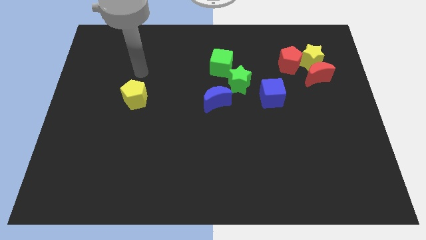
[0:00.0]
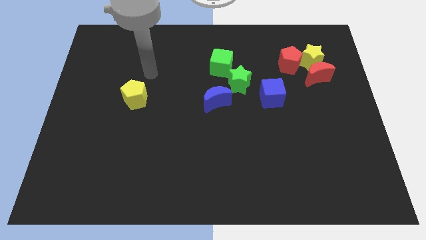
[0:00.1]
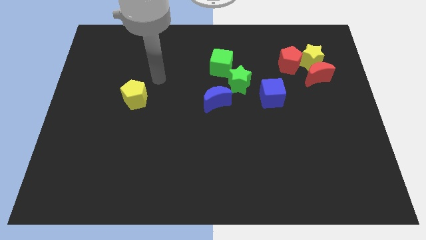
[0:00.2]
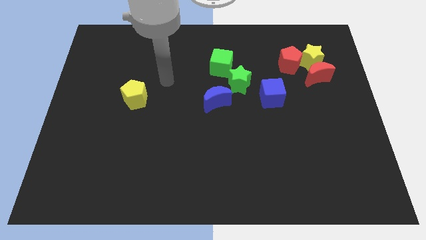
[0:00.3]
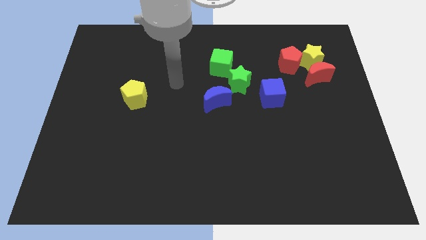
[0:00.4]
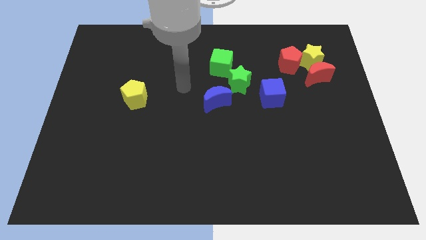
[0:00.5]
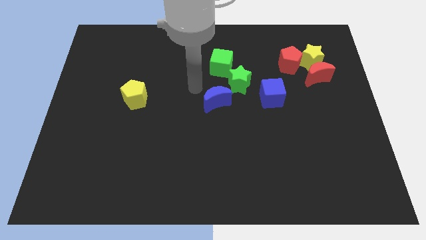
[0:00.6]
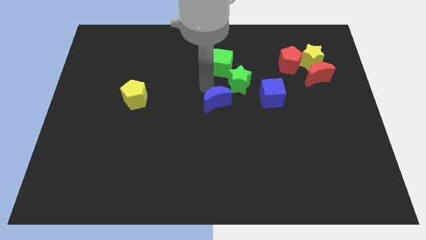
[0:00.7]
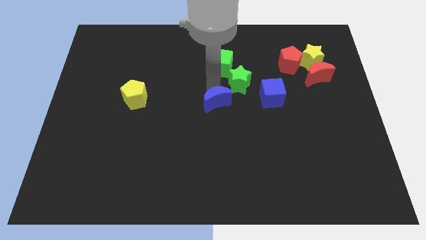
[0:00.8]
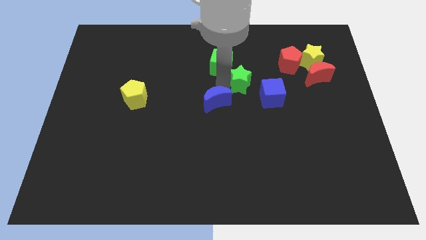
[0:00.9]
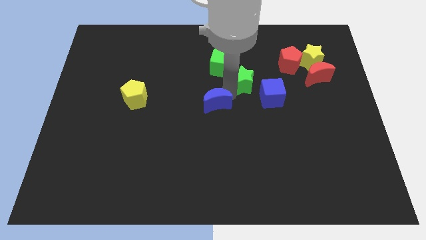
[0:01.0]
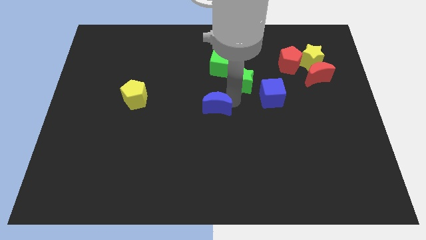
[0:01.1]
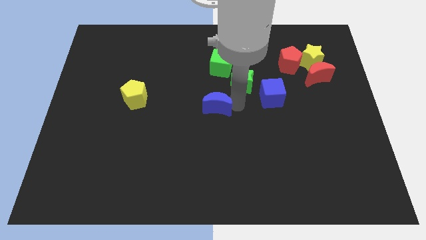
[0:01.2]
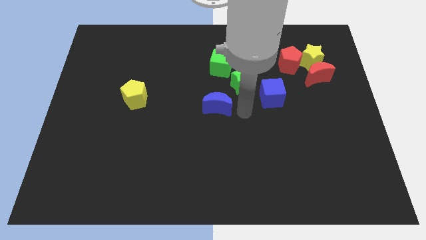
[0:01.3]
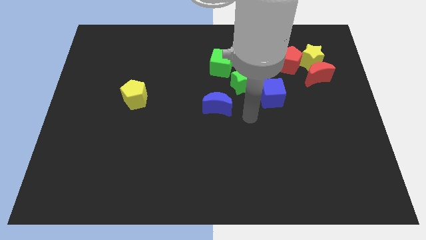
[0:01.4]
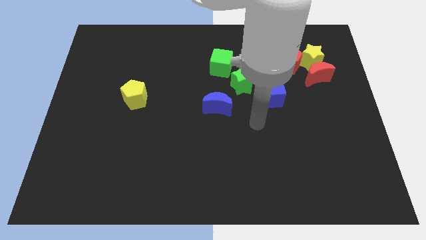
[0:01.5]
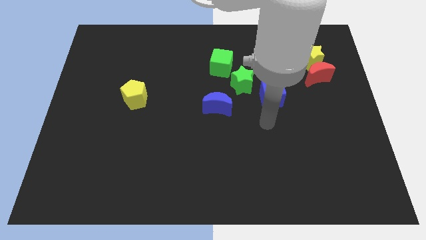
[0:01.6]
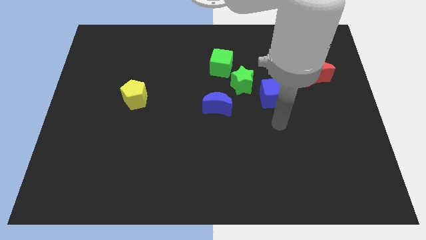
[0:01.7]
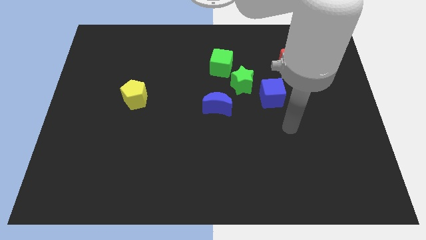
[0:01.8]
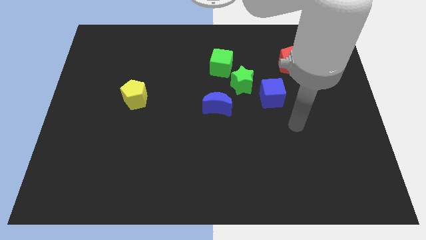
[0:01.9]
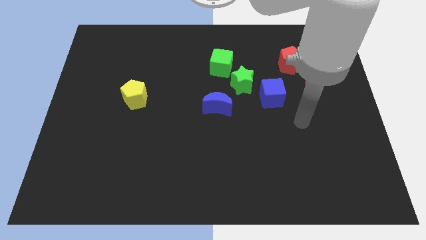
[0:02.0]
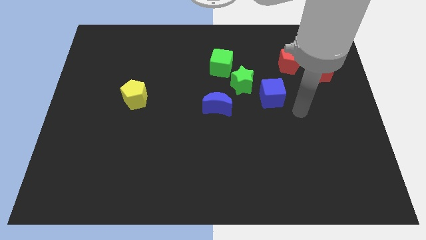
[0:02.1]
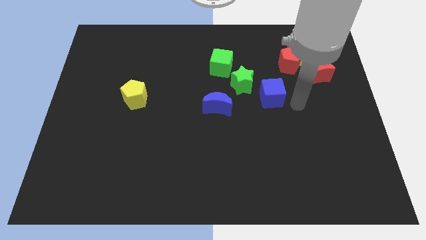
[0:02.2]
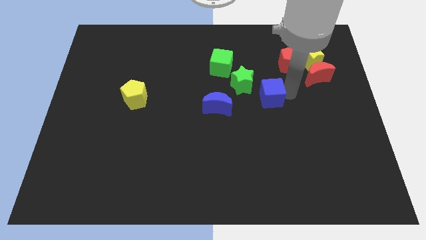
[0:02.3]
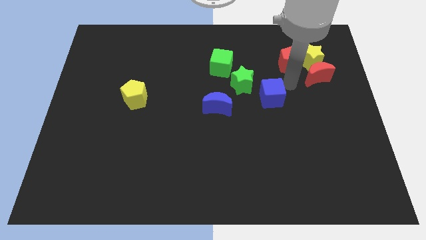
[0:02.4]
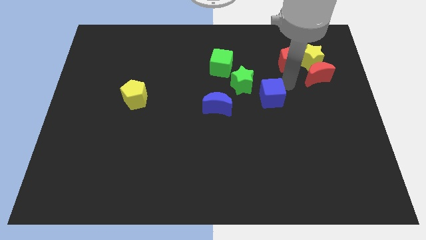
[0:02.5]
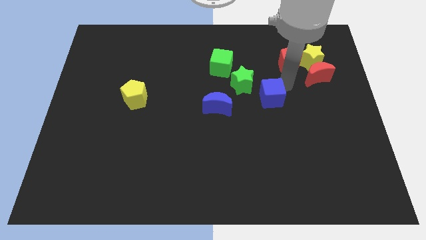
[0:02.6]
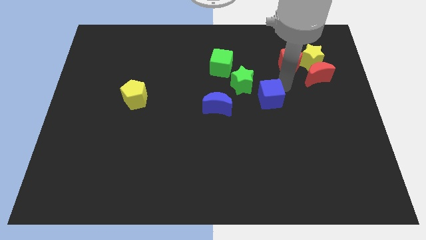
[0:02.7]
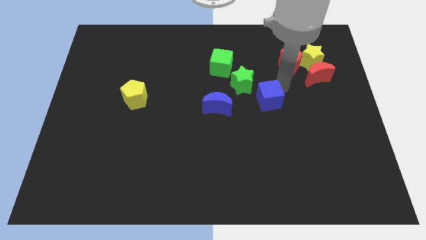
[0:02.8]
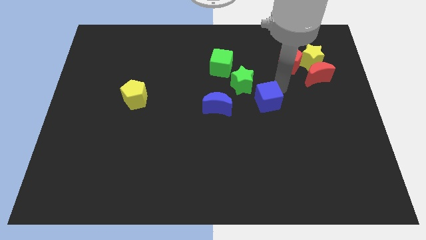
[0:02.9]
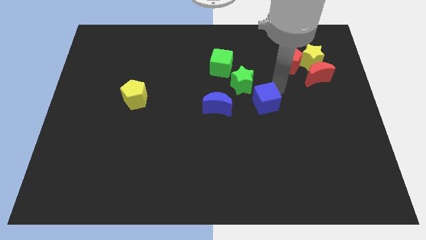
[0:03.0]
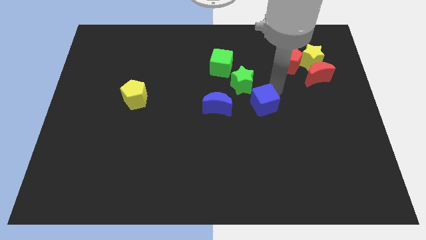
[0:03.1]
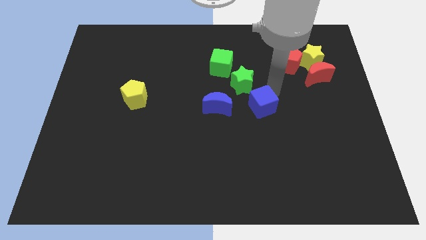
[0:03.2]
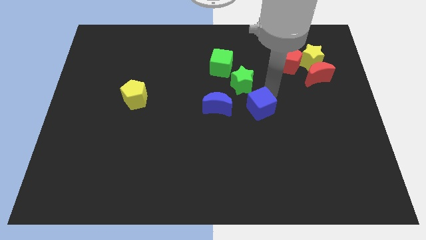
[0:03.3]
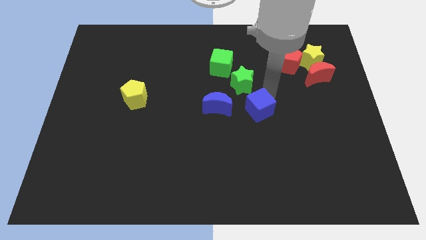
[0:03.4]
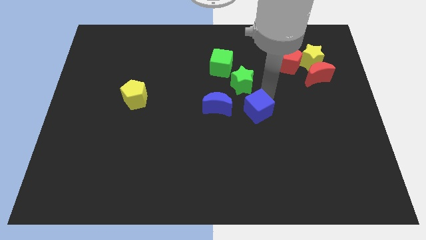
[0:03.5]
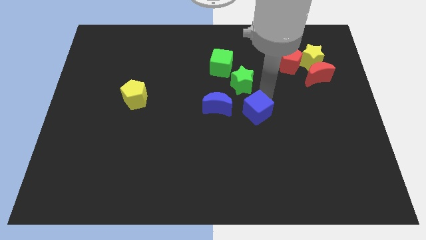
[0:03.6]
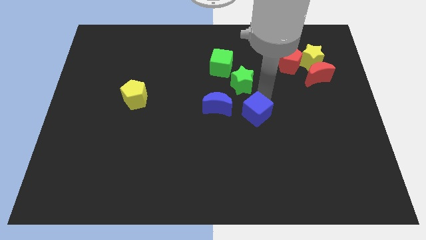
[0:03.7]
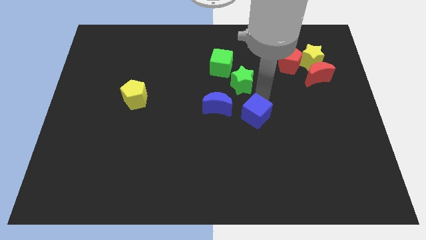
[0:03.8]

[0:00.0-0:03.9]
push the blue cube down and then left a little

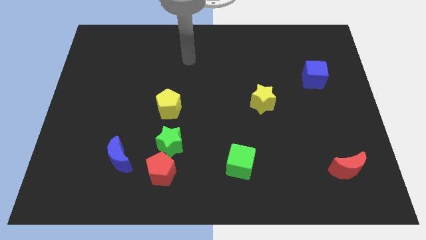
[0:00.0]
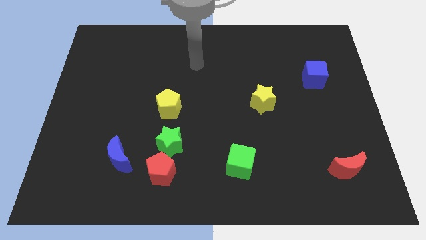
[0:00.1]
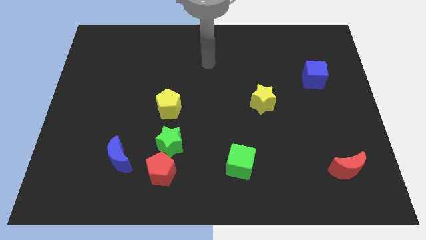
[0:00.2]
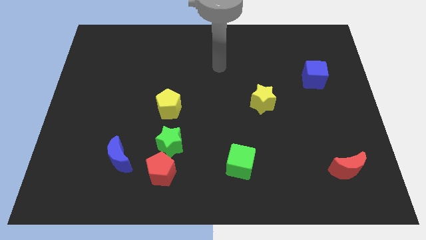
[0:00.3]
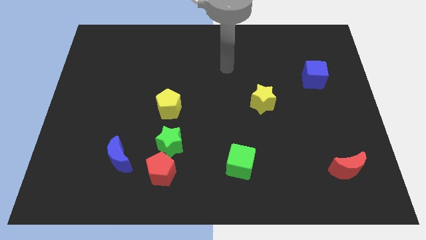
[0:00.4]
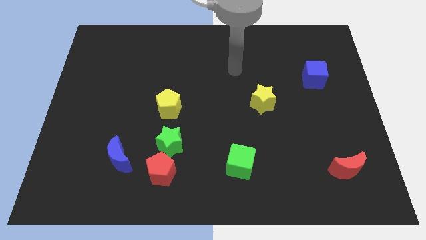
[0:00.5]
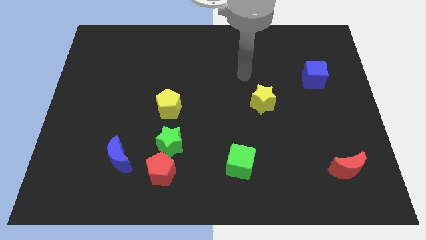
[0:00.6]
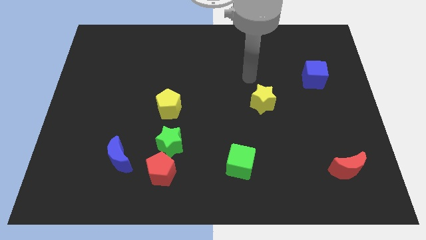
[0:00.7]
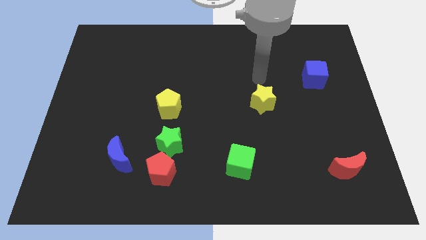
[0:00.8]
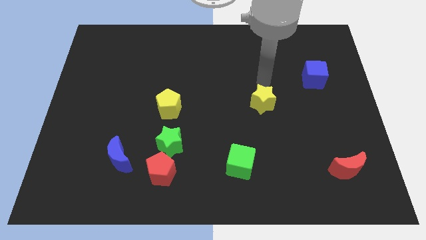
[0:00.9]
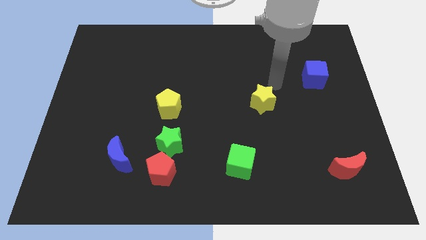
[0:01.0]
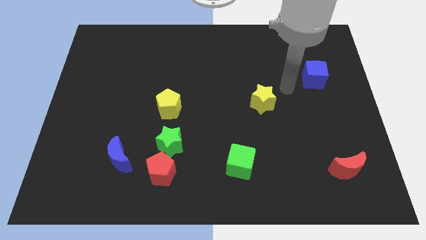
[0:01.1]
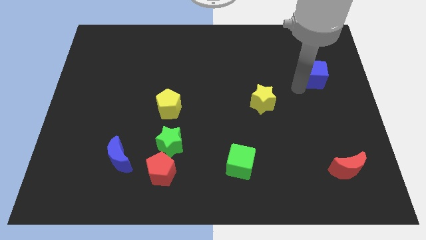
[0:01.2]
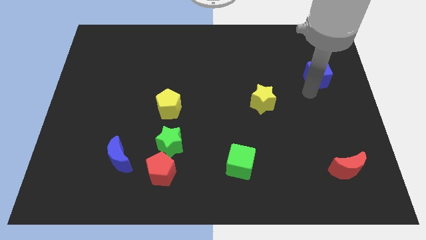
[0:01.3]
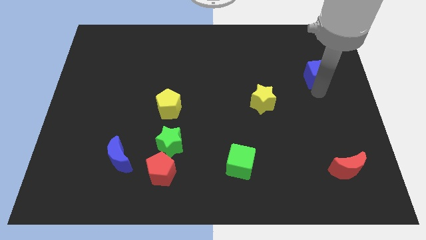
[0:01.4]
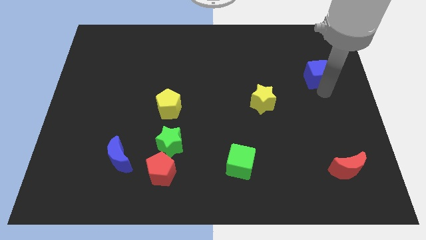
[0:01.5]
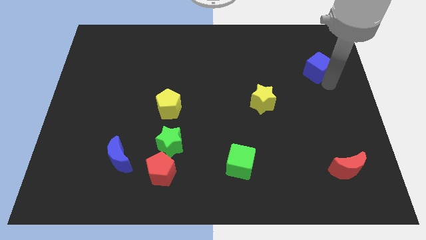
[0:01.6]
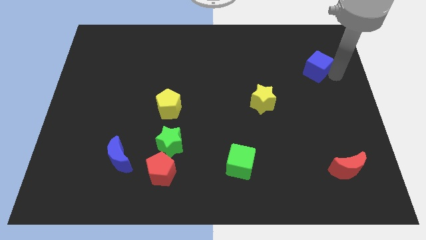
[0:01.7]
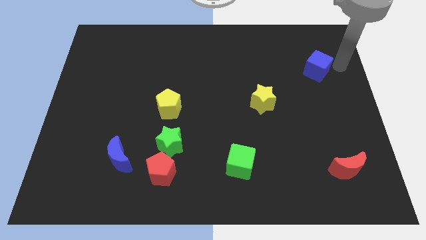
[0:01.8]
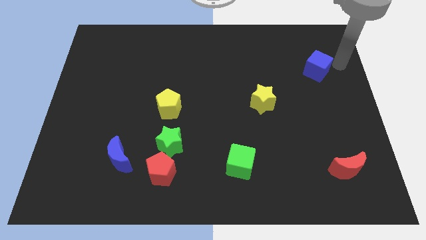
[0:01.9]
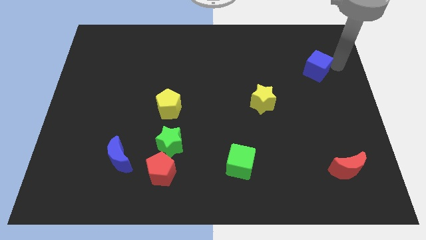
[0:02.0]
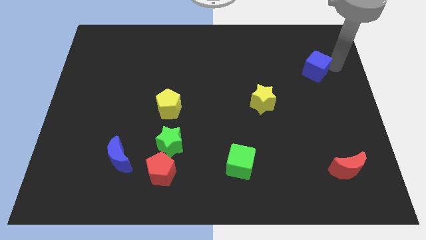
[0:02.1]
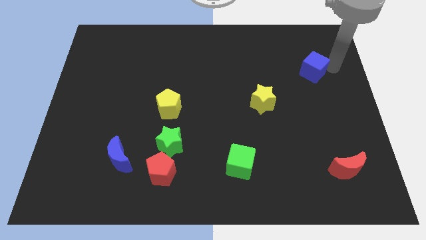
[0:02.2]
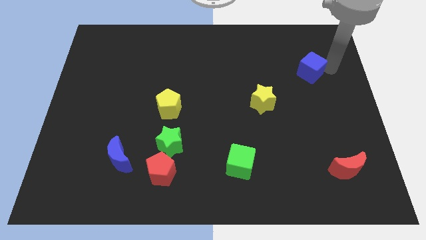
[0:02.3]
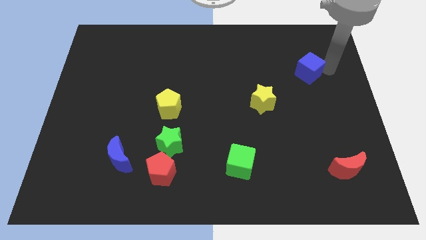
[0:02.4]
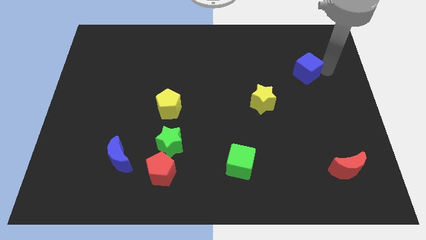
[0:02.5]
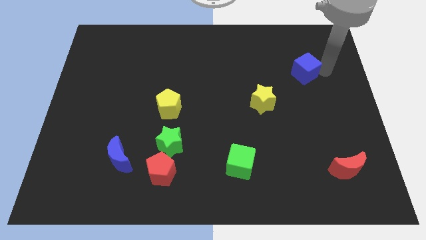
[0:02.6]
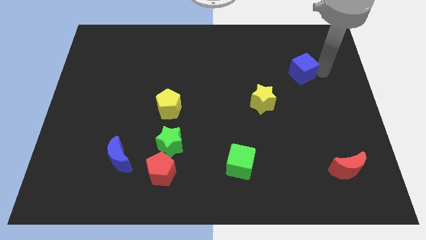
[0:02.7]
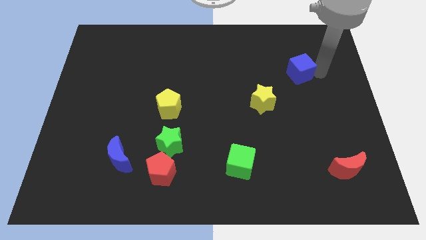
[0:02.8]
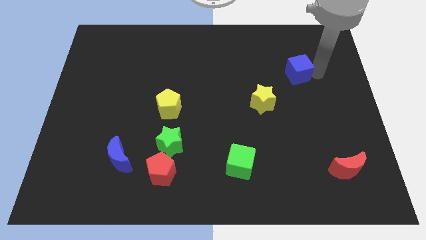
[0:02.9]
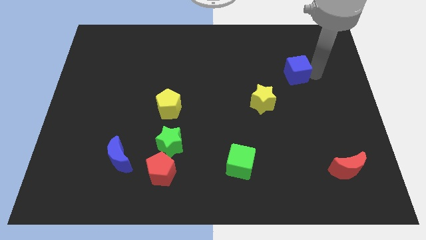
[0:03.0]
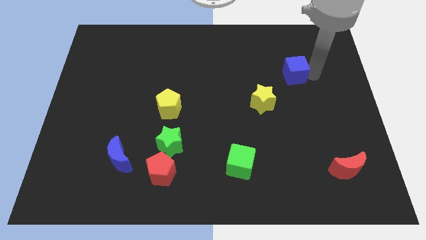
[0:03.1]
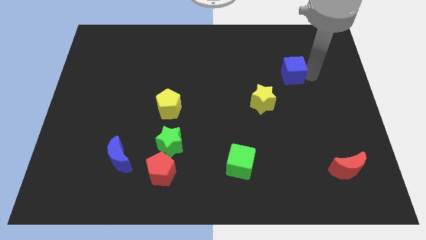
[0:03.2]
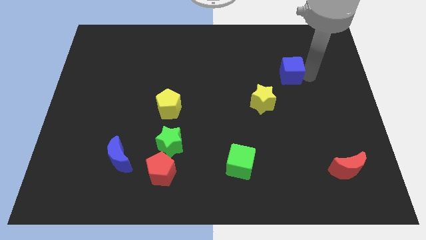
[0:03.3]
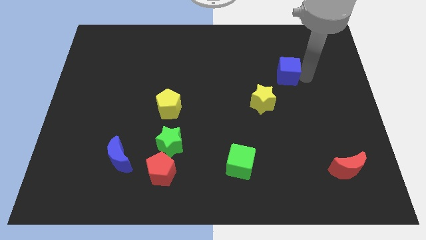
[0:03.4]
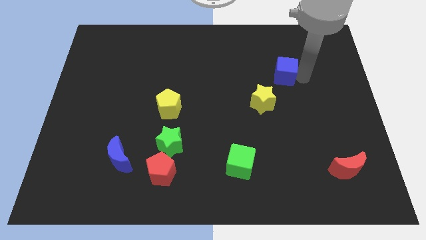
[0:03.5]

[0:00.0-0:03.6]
slide the blue cube to the left a little bit

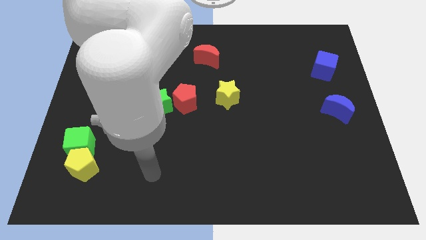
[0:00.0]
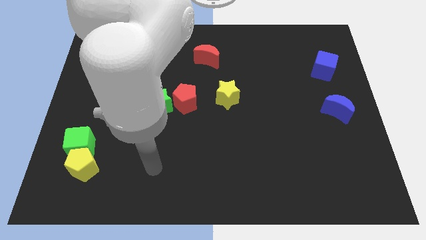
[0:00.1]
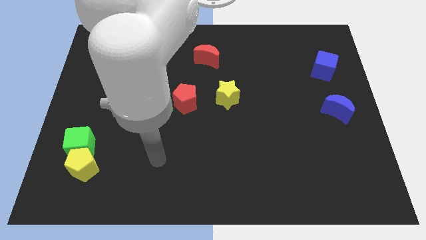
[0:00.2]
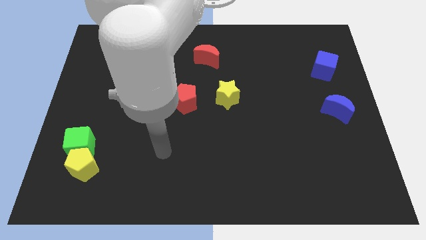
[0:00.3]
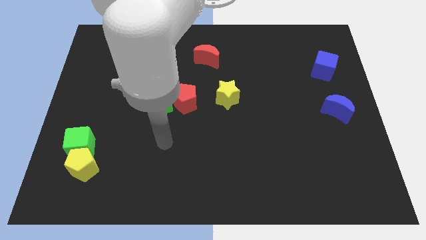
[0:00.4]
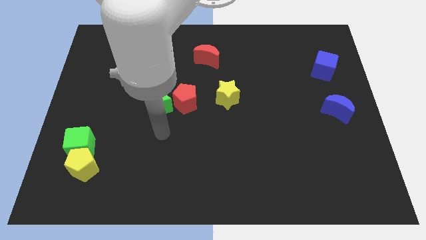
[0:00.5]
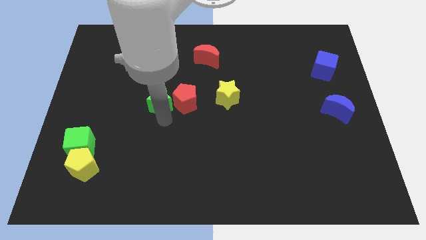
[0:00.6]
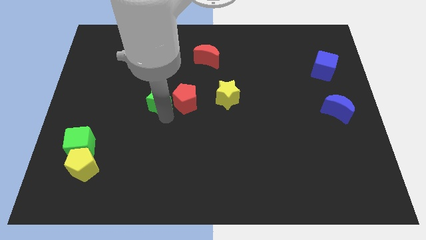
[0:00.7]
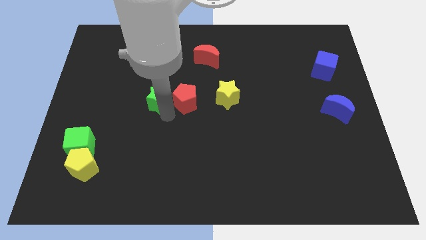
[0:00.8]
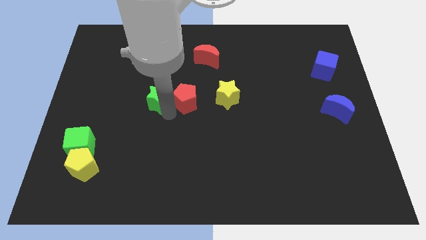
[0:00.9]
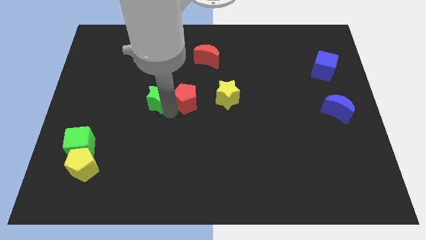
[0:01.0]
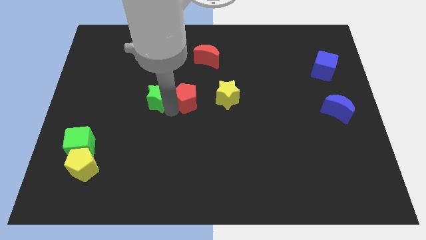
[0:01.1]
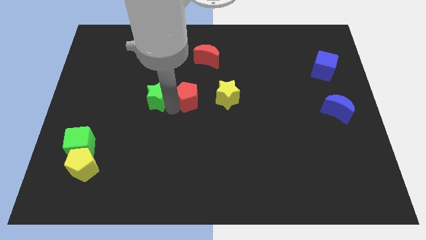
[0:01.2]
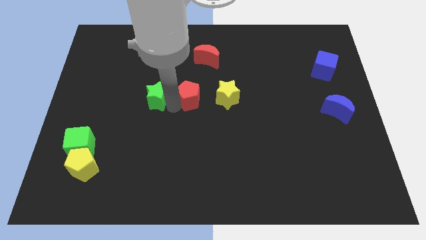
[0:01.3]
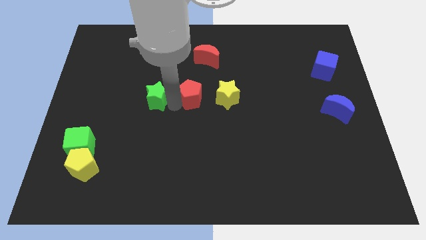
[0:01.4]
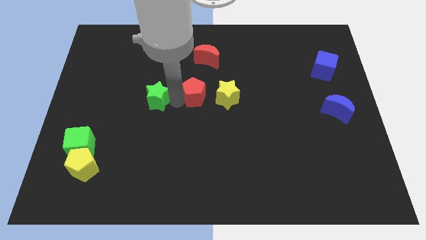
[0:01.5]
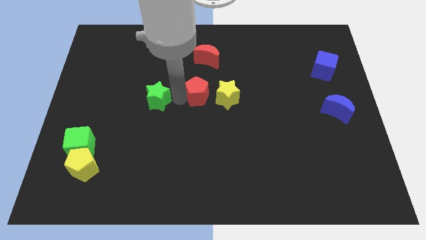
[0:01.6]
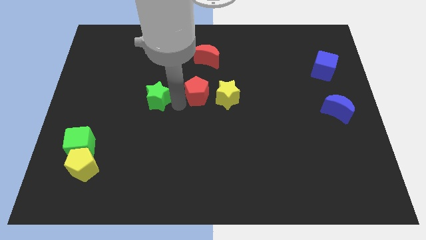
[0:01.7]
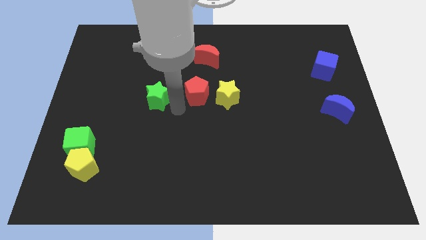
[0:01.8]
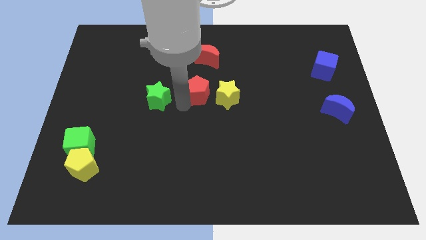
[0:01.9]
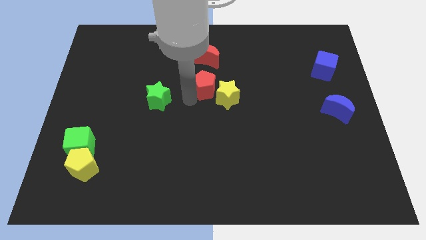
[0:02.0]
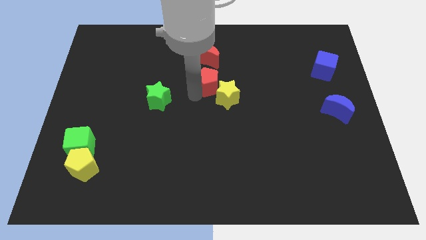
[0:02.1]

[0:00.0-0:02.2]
slide the red pentagon upwards and then right a bit
